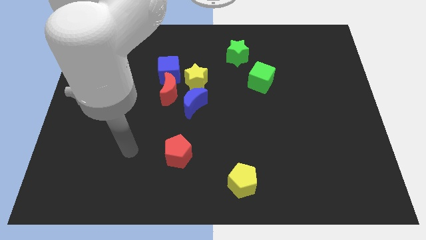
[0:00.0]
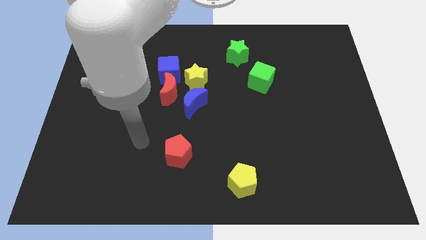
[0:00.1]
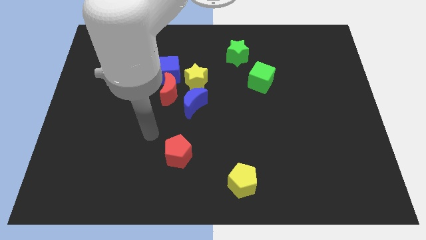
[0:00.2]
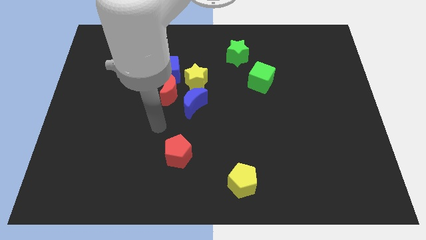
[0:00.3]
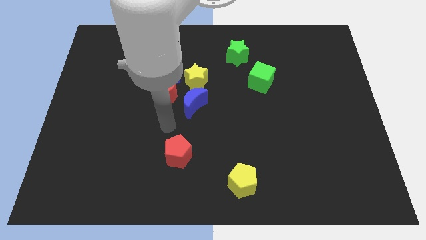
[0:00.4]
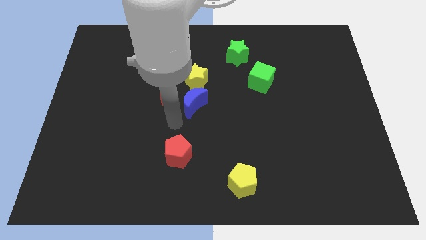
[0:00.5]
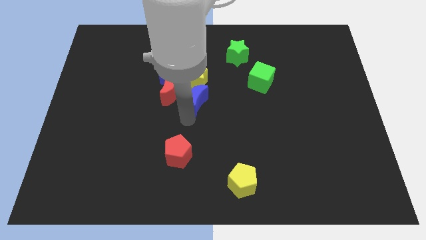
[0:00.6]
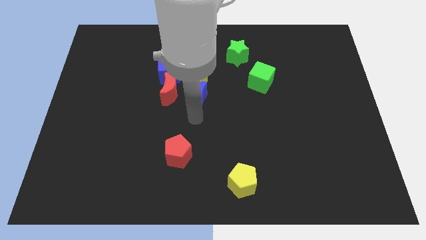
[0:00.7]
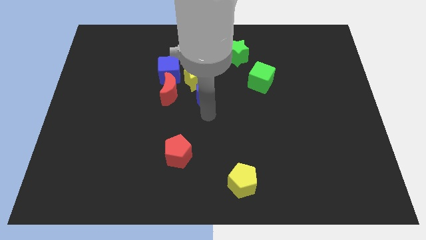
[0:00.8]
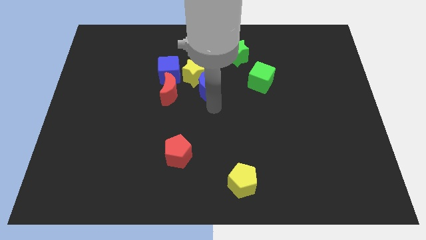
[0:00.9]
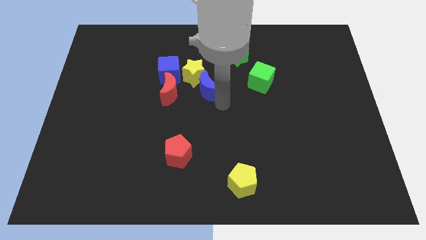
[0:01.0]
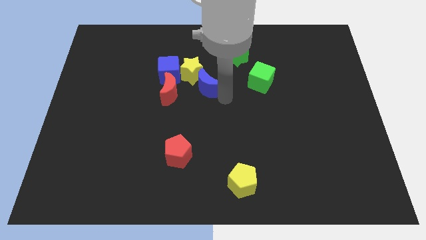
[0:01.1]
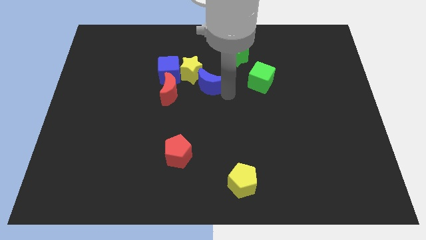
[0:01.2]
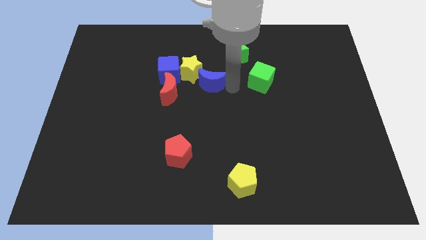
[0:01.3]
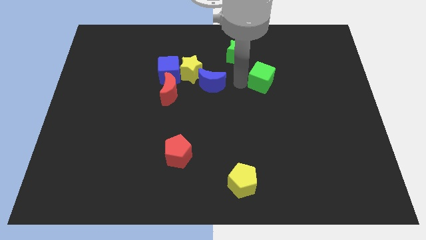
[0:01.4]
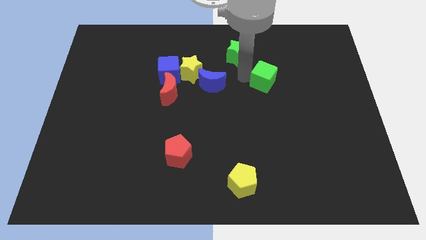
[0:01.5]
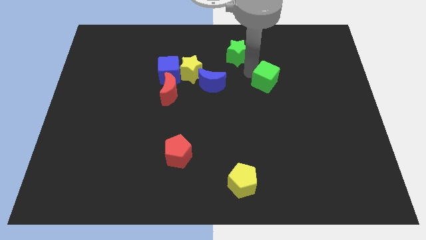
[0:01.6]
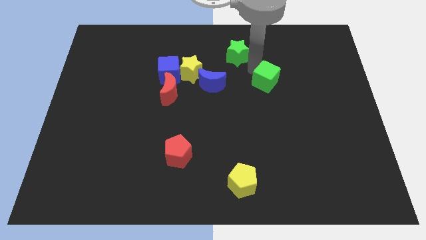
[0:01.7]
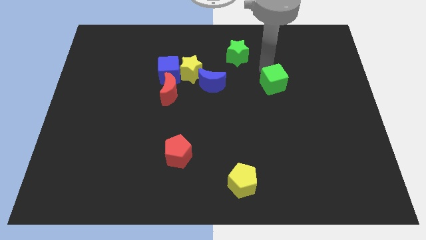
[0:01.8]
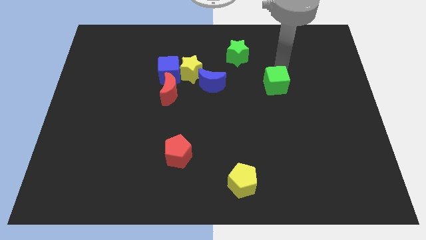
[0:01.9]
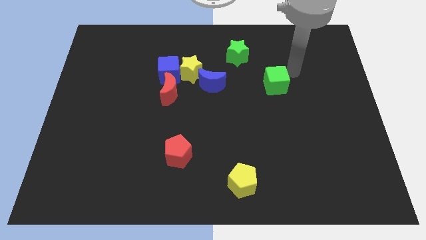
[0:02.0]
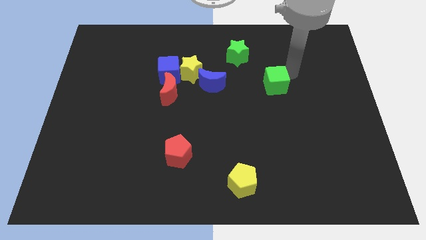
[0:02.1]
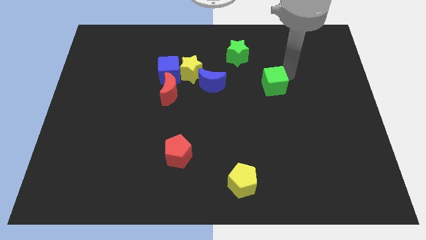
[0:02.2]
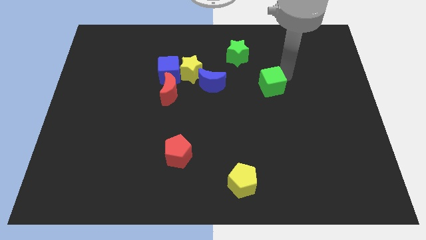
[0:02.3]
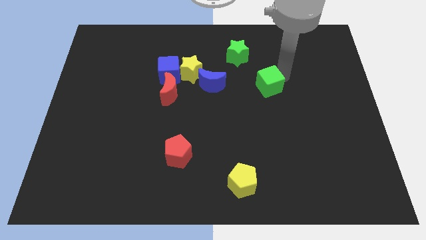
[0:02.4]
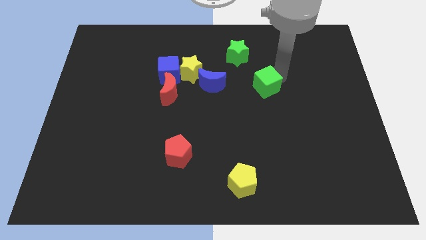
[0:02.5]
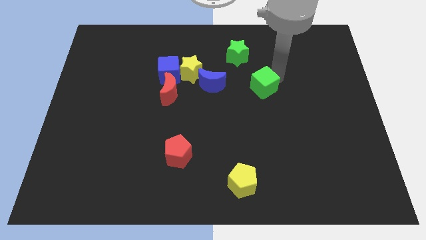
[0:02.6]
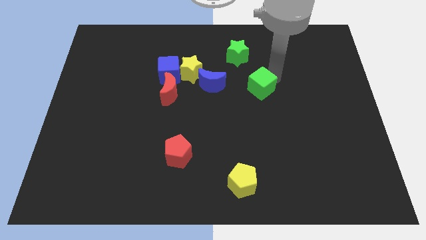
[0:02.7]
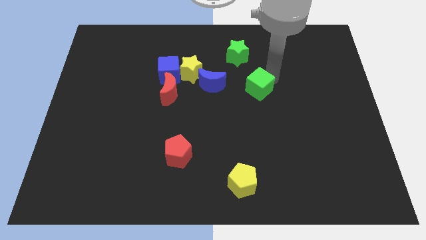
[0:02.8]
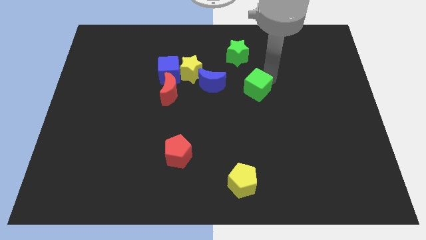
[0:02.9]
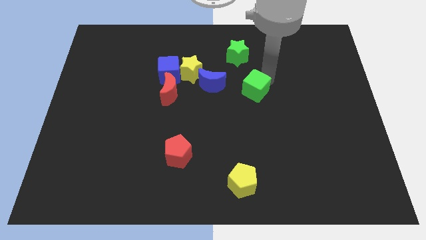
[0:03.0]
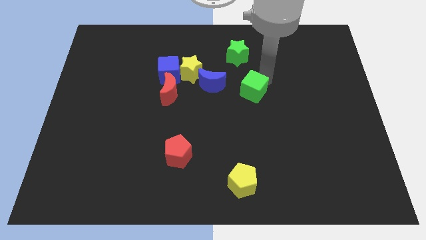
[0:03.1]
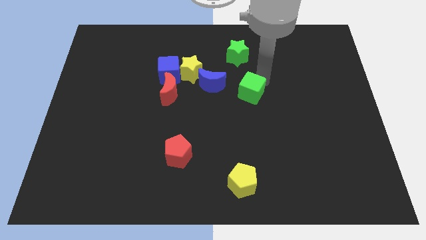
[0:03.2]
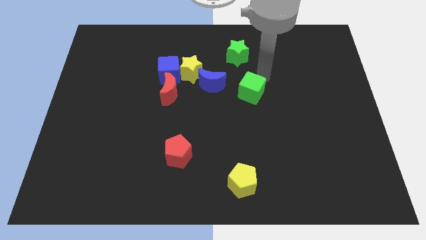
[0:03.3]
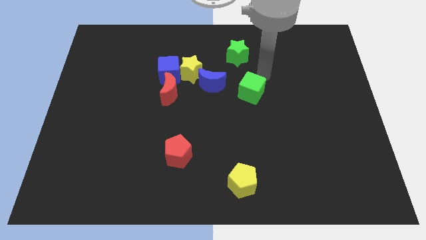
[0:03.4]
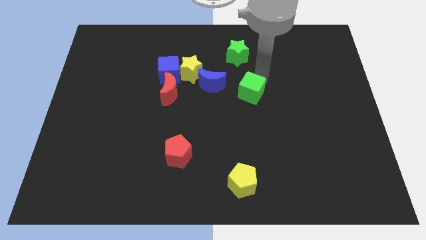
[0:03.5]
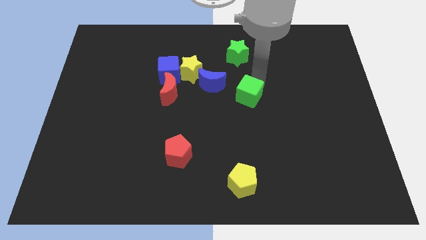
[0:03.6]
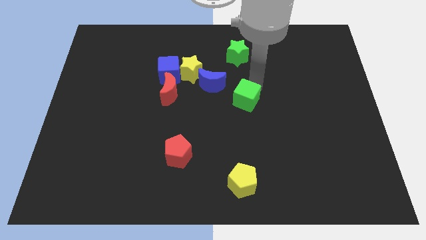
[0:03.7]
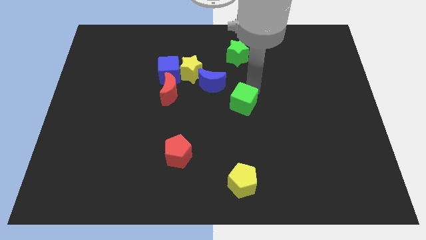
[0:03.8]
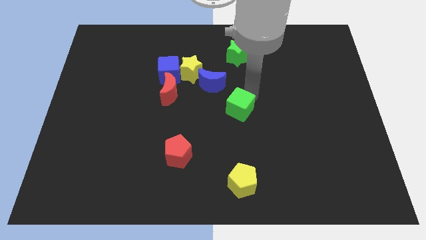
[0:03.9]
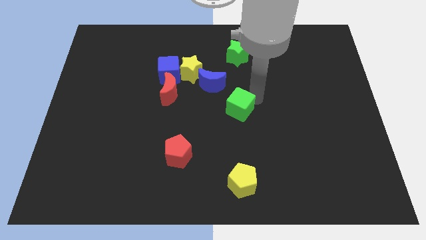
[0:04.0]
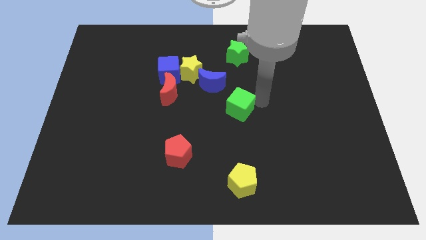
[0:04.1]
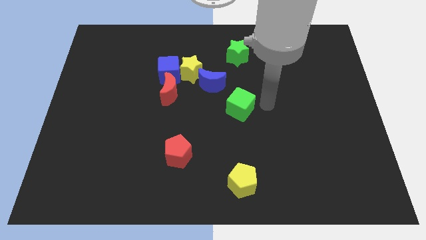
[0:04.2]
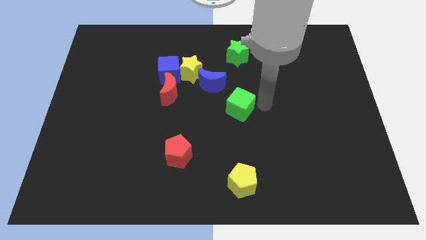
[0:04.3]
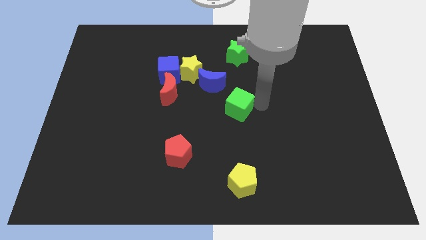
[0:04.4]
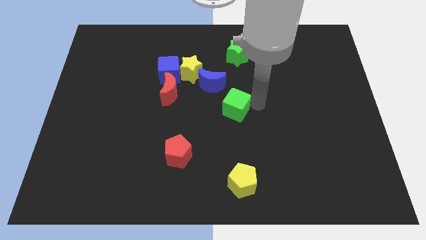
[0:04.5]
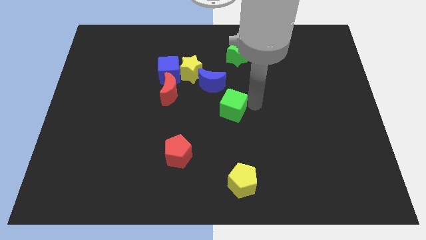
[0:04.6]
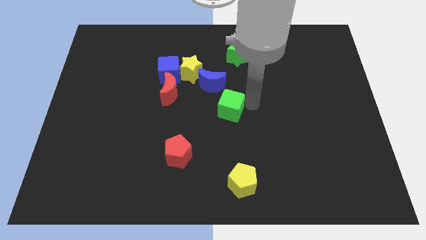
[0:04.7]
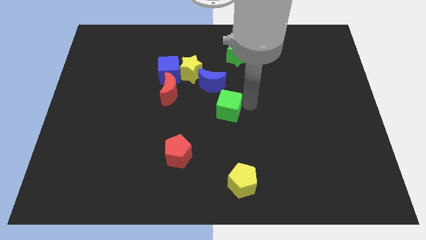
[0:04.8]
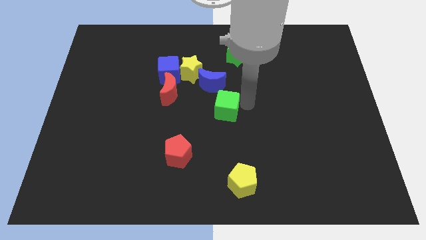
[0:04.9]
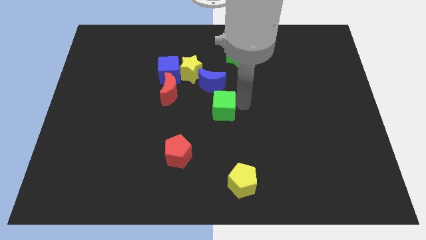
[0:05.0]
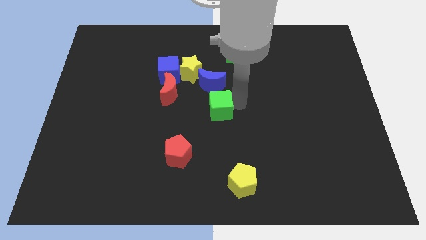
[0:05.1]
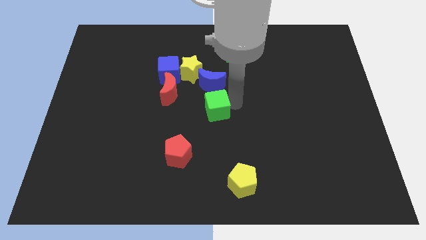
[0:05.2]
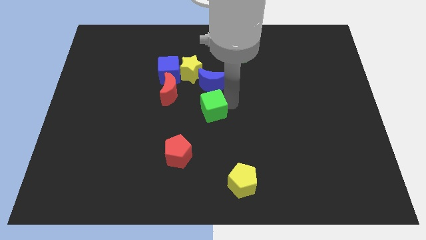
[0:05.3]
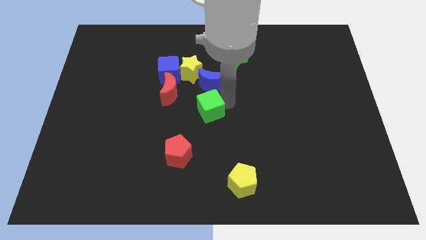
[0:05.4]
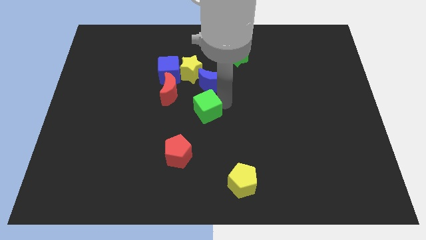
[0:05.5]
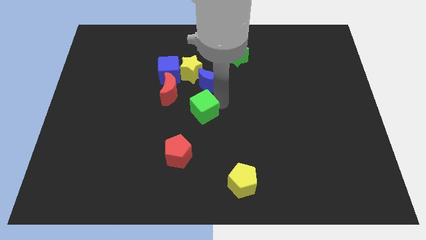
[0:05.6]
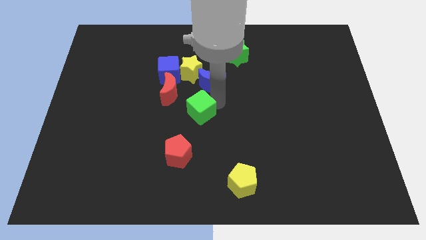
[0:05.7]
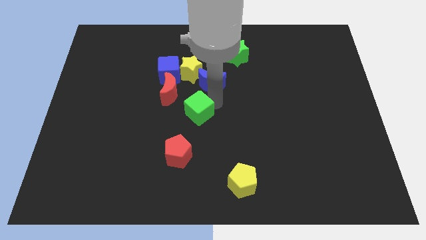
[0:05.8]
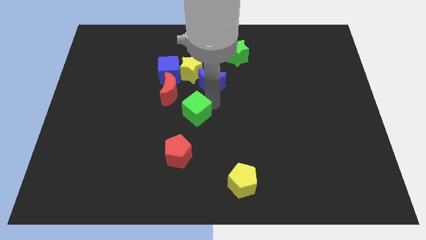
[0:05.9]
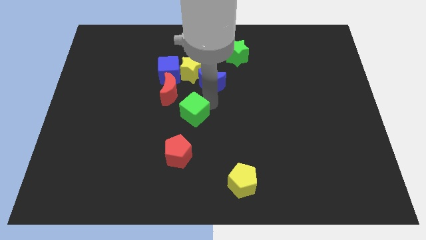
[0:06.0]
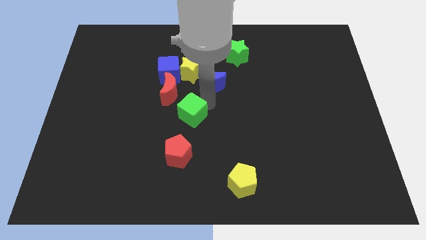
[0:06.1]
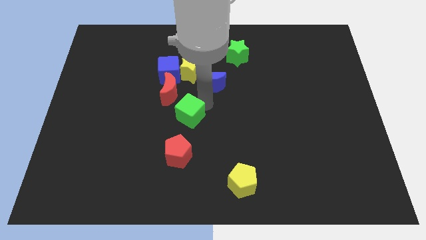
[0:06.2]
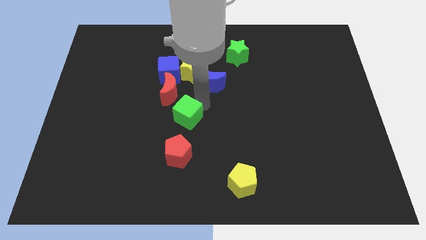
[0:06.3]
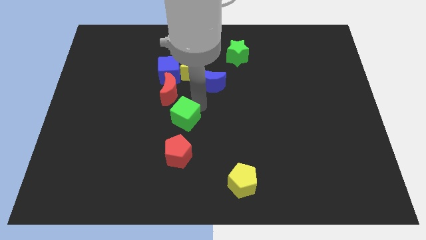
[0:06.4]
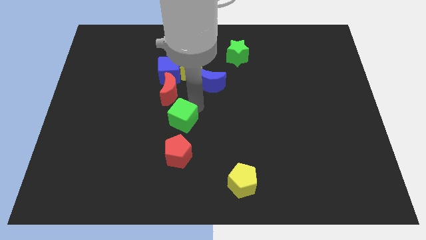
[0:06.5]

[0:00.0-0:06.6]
push the green cube below the blue cube
